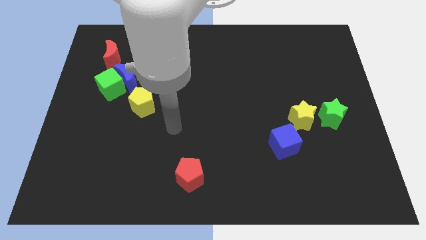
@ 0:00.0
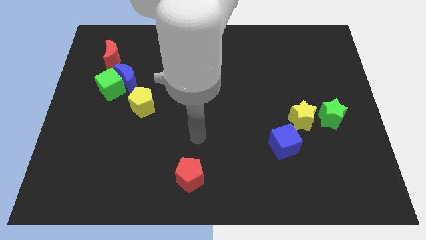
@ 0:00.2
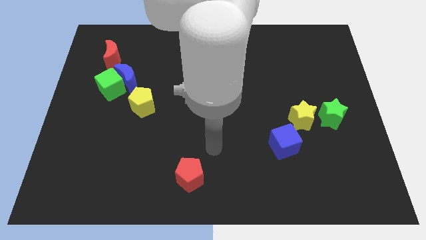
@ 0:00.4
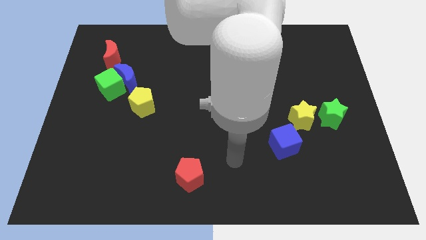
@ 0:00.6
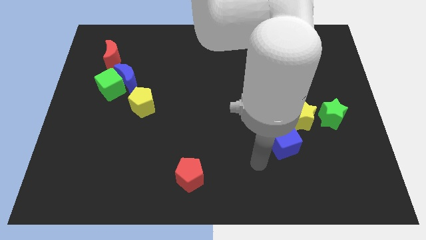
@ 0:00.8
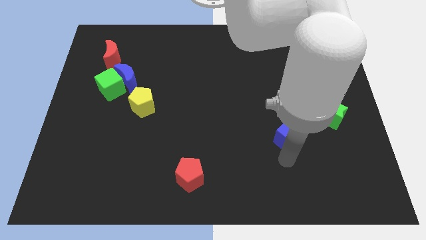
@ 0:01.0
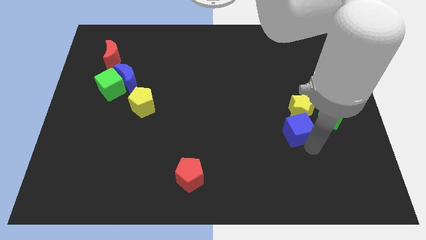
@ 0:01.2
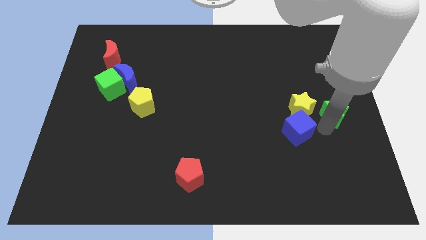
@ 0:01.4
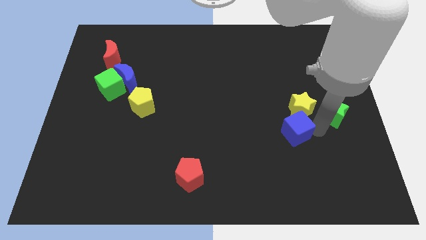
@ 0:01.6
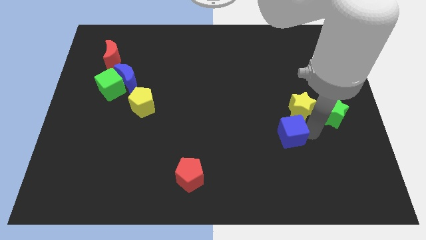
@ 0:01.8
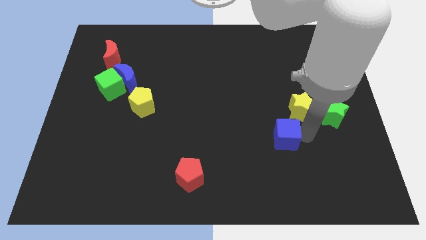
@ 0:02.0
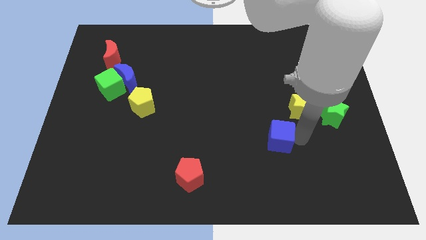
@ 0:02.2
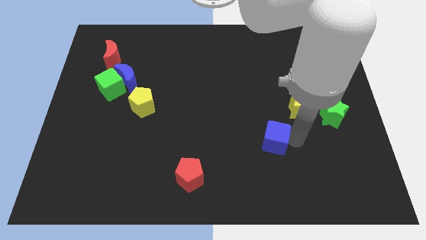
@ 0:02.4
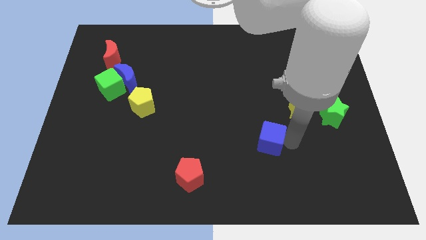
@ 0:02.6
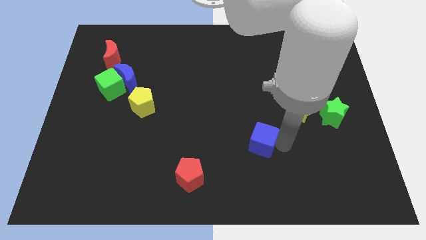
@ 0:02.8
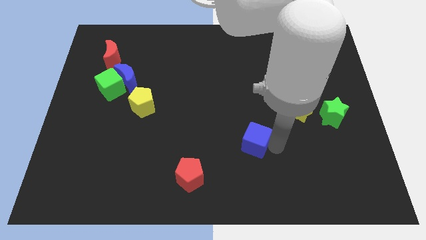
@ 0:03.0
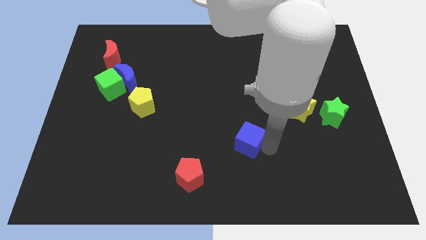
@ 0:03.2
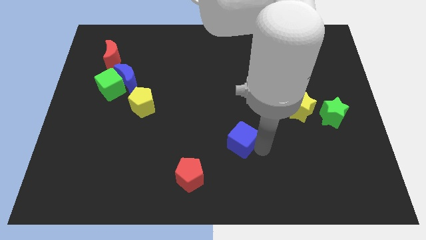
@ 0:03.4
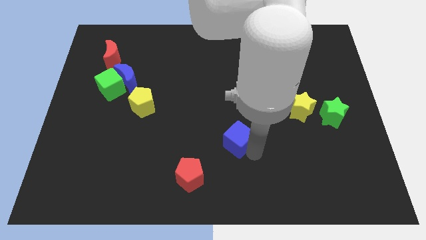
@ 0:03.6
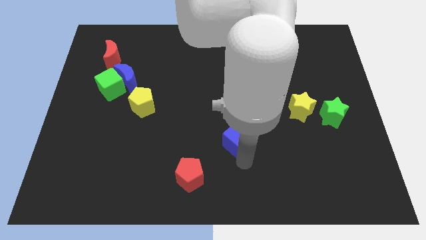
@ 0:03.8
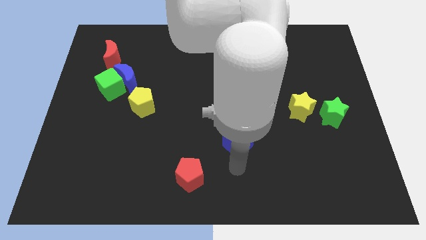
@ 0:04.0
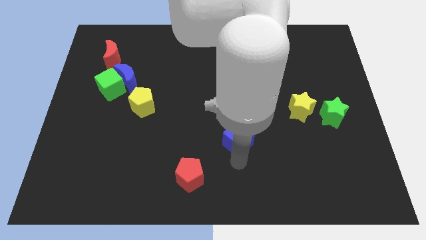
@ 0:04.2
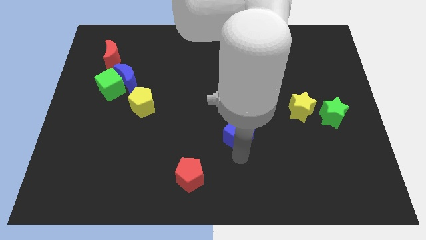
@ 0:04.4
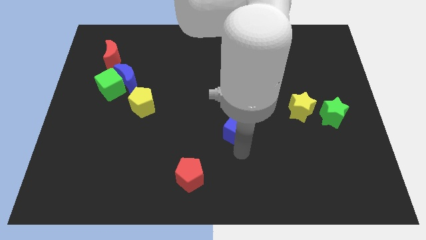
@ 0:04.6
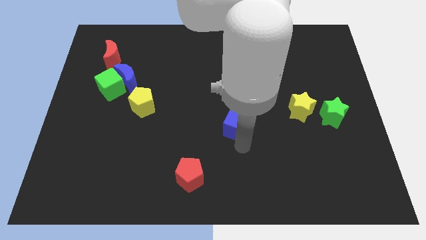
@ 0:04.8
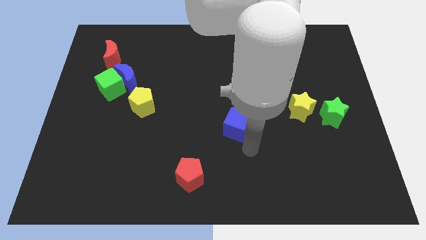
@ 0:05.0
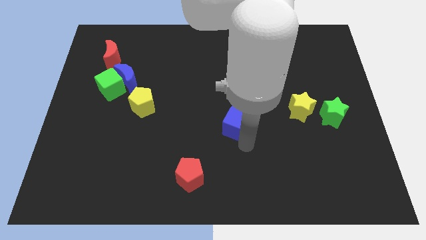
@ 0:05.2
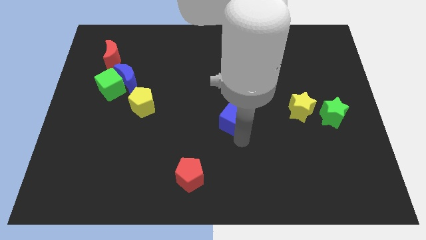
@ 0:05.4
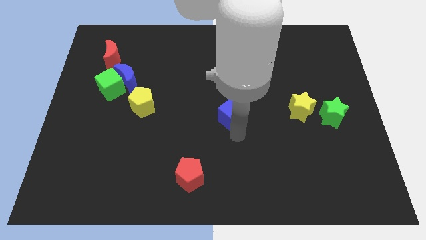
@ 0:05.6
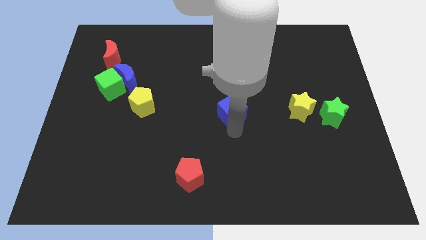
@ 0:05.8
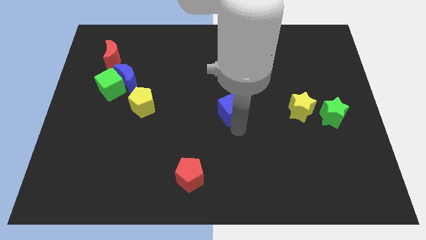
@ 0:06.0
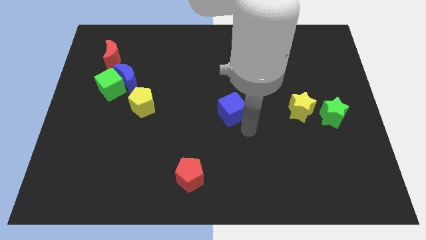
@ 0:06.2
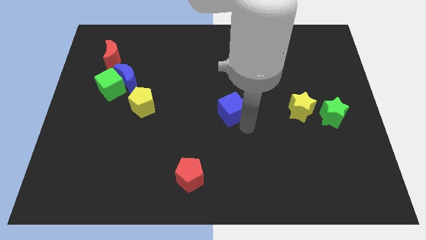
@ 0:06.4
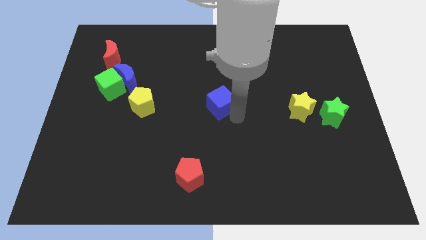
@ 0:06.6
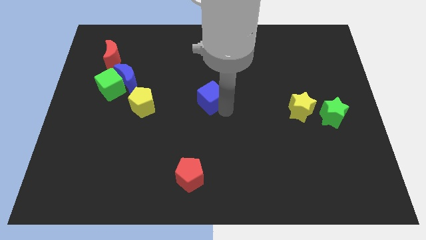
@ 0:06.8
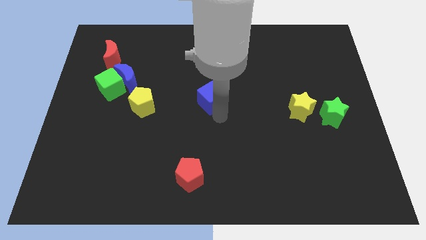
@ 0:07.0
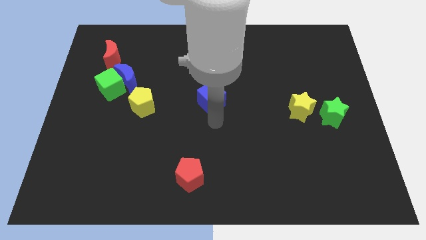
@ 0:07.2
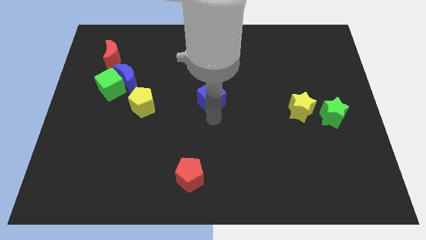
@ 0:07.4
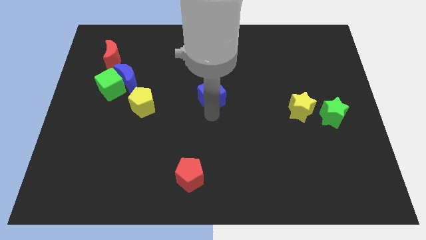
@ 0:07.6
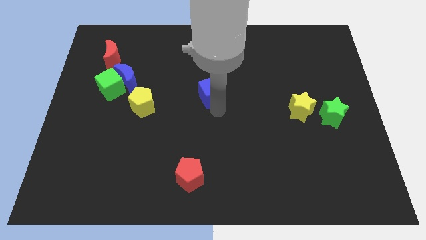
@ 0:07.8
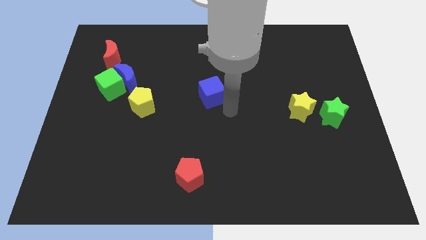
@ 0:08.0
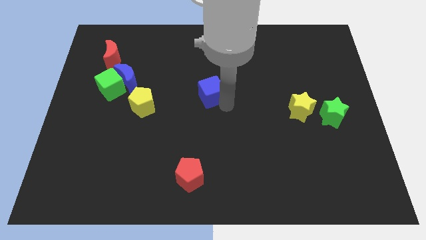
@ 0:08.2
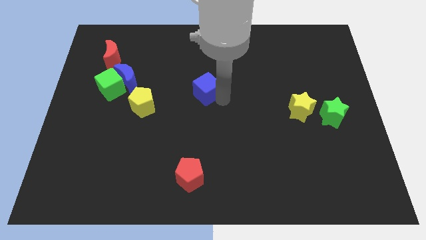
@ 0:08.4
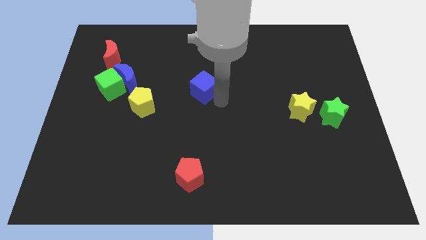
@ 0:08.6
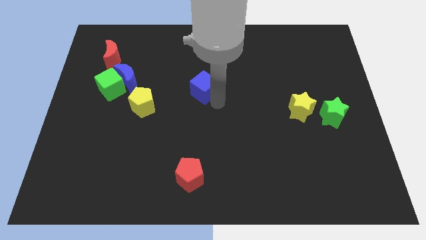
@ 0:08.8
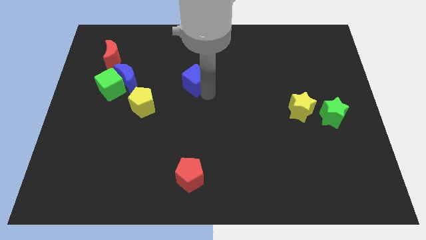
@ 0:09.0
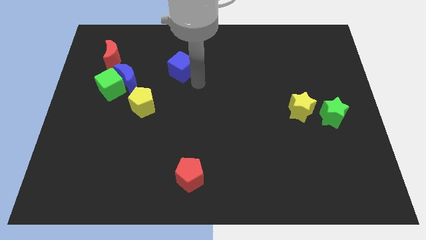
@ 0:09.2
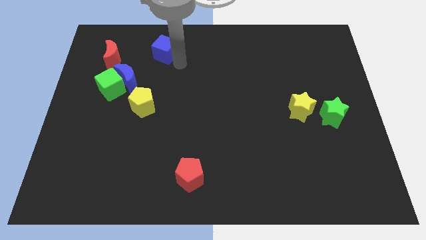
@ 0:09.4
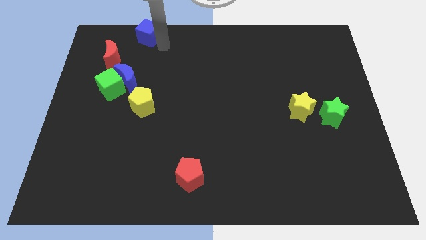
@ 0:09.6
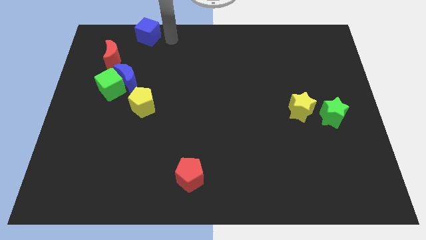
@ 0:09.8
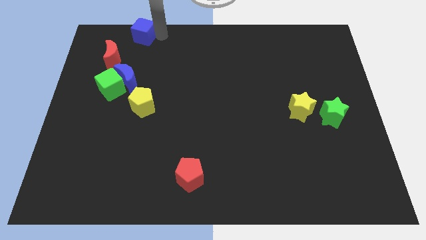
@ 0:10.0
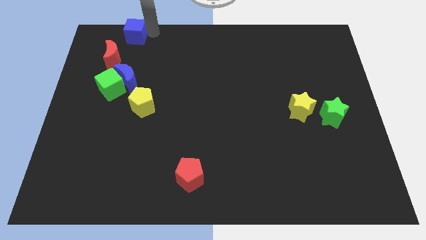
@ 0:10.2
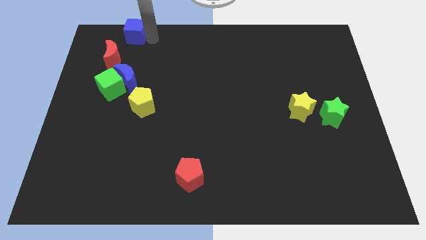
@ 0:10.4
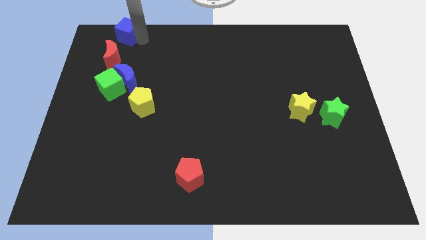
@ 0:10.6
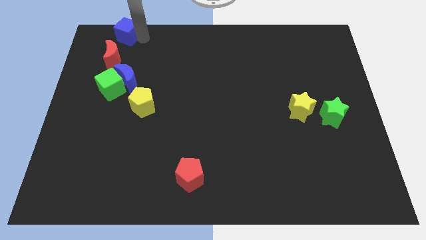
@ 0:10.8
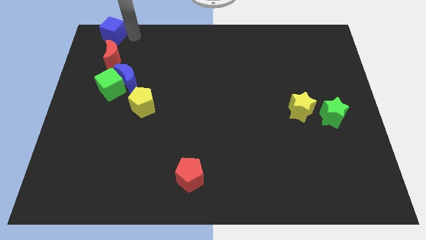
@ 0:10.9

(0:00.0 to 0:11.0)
move the blue cube to the top left of the board

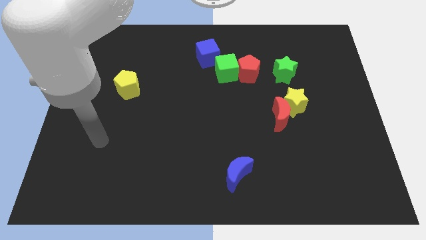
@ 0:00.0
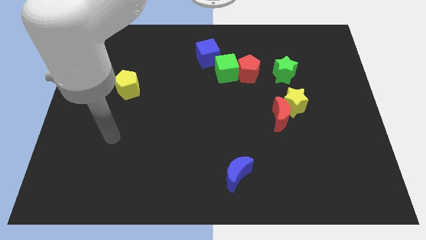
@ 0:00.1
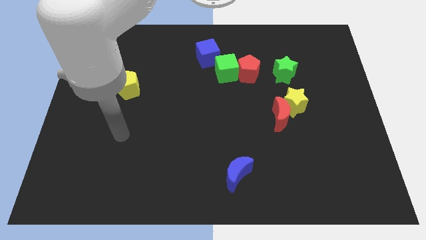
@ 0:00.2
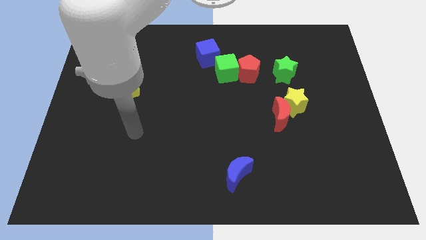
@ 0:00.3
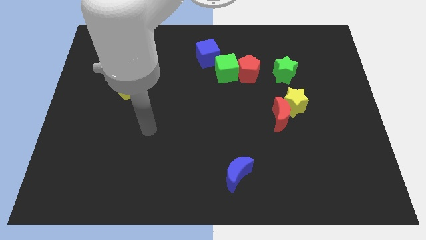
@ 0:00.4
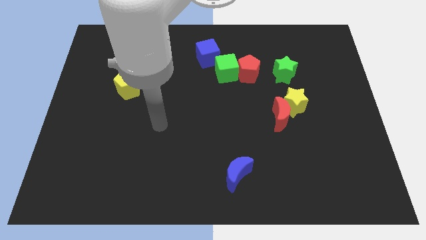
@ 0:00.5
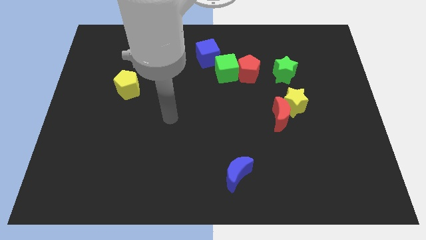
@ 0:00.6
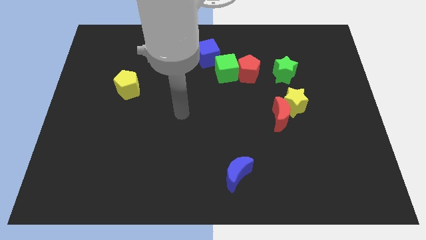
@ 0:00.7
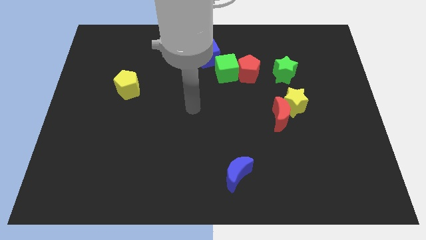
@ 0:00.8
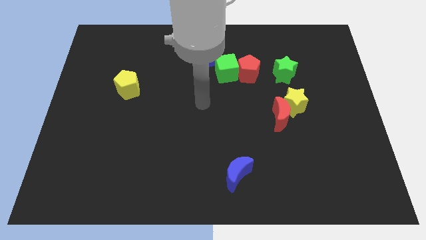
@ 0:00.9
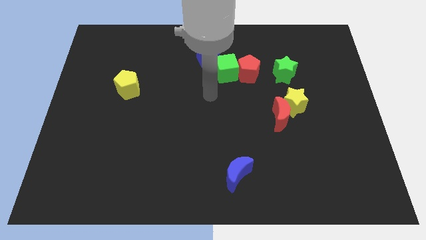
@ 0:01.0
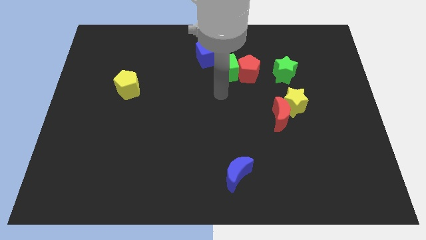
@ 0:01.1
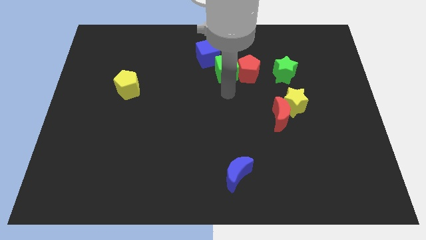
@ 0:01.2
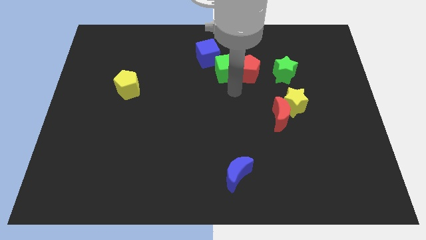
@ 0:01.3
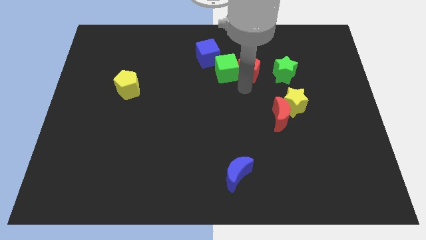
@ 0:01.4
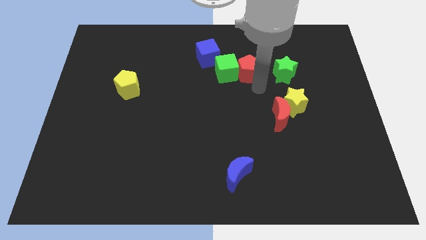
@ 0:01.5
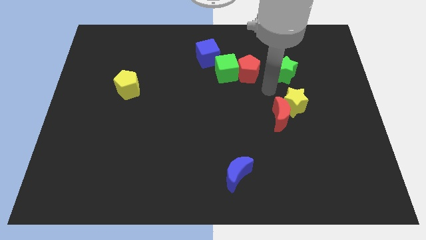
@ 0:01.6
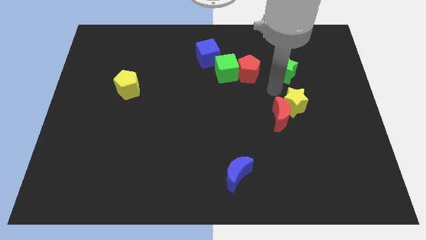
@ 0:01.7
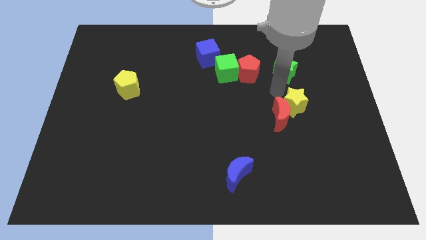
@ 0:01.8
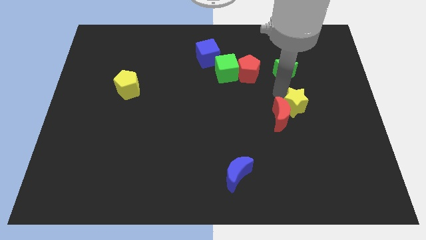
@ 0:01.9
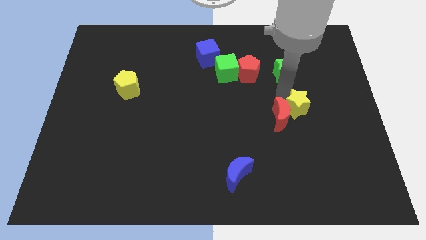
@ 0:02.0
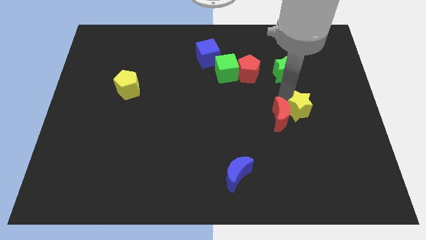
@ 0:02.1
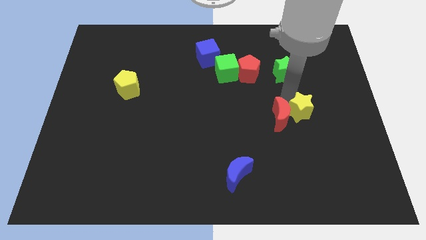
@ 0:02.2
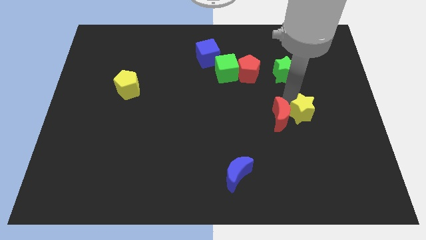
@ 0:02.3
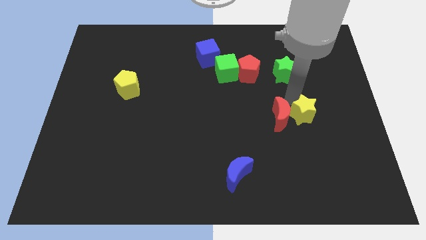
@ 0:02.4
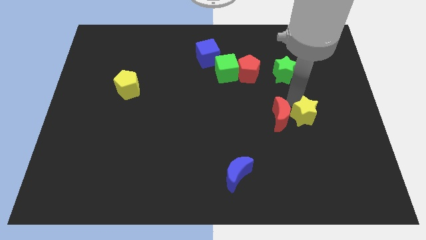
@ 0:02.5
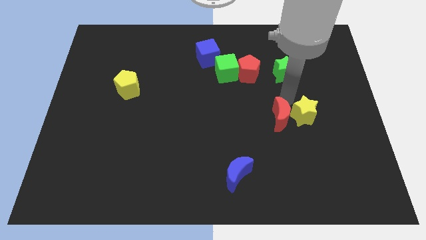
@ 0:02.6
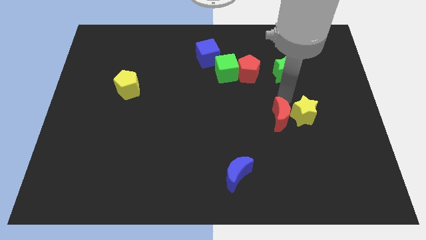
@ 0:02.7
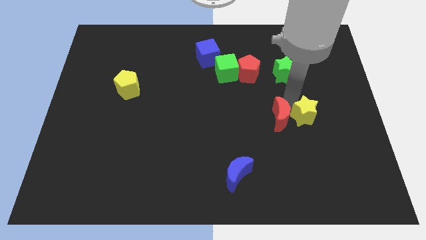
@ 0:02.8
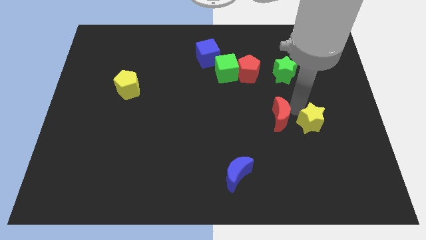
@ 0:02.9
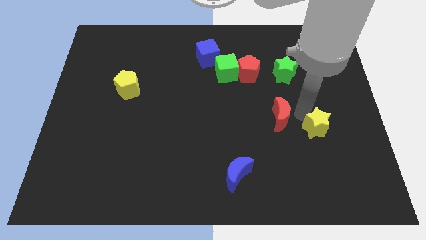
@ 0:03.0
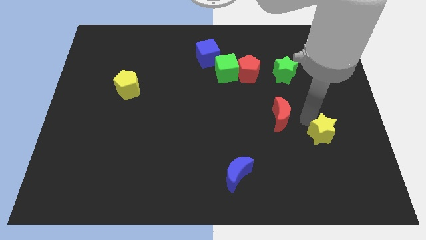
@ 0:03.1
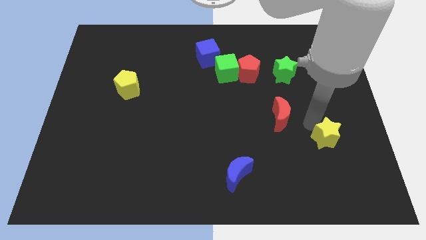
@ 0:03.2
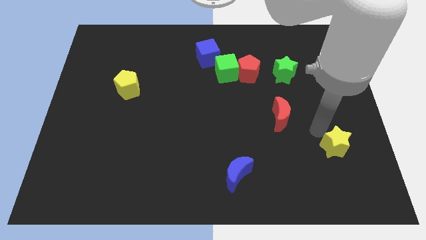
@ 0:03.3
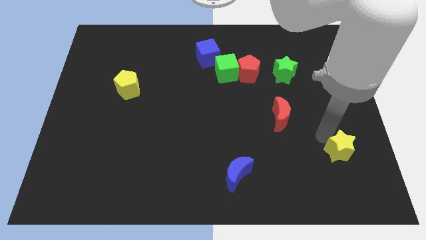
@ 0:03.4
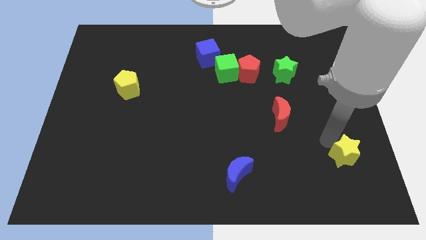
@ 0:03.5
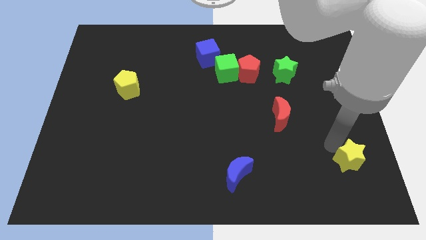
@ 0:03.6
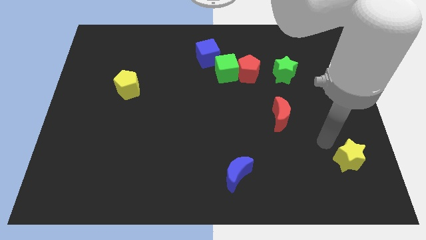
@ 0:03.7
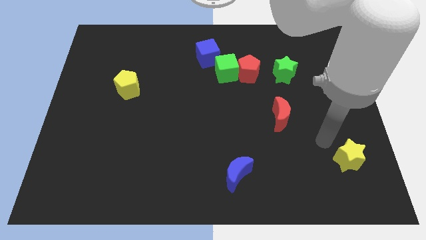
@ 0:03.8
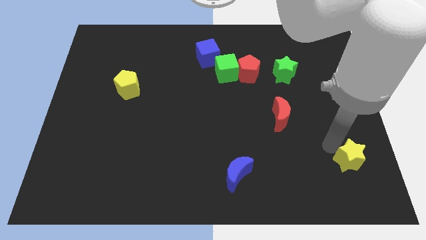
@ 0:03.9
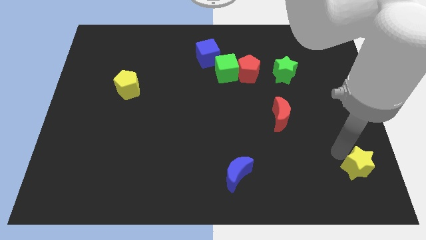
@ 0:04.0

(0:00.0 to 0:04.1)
put the yellow star to the lower right corner
